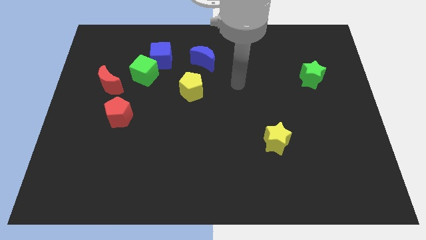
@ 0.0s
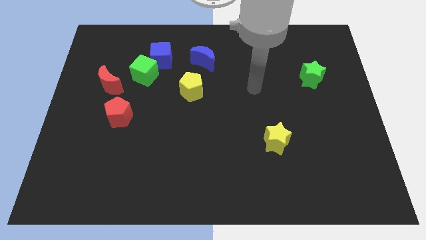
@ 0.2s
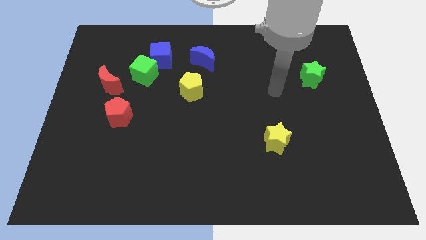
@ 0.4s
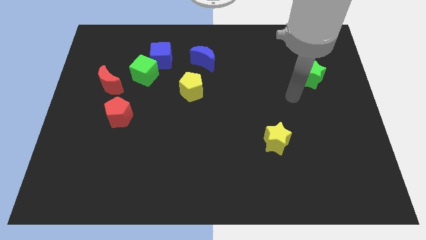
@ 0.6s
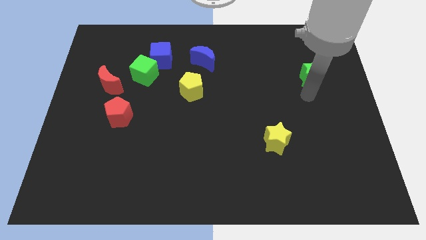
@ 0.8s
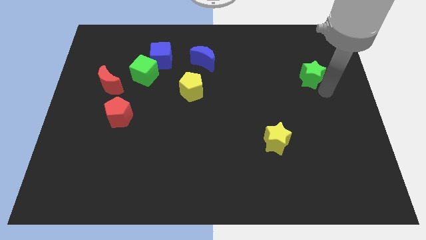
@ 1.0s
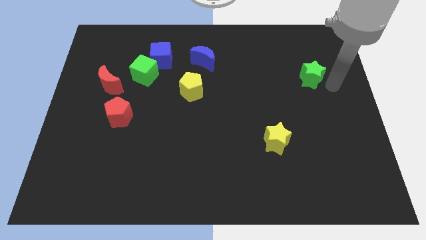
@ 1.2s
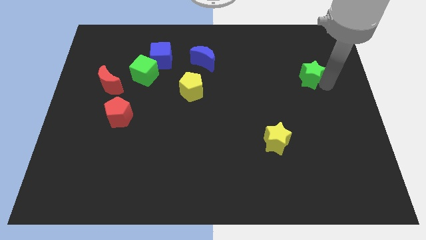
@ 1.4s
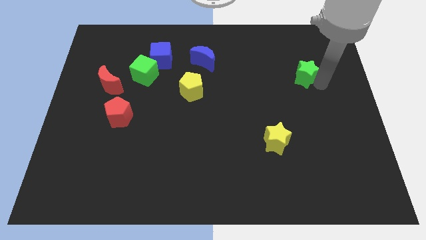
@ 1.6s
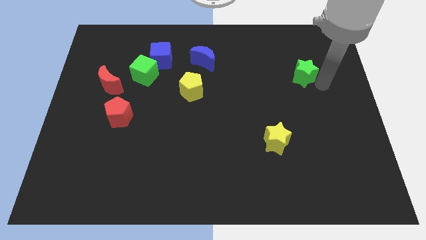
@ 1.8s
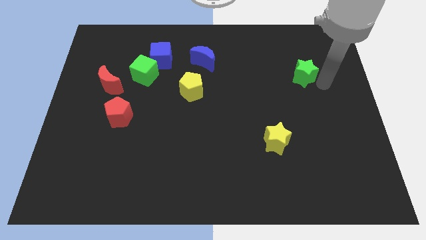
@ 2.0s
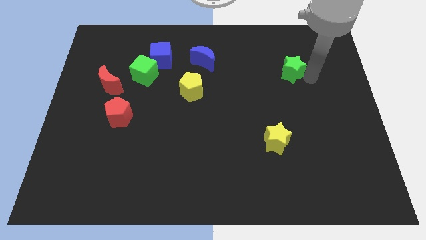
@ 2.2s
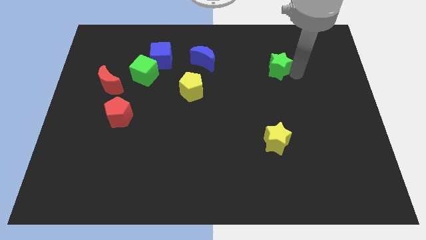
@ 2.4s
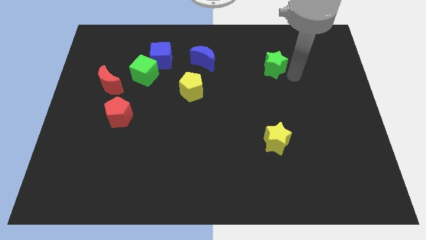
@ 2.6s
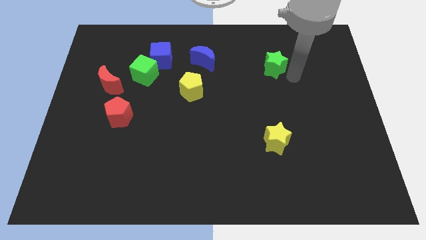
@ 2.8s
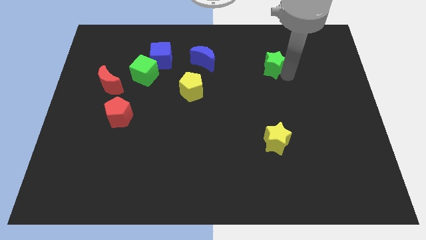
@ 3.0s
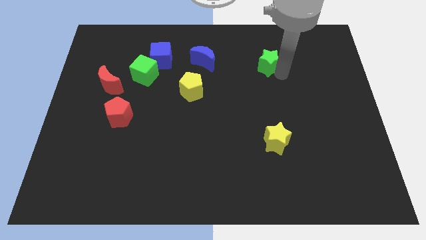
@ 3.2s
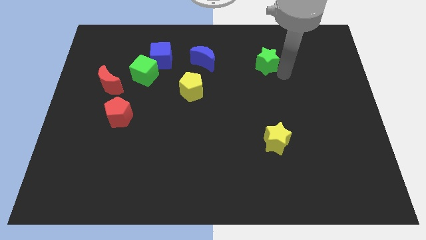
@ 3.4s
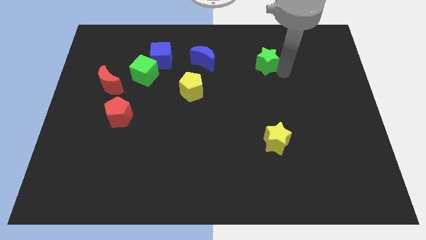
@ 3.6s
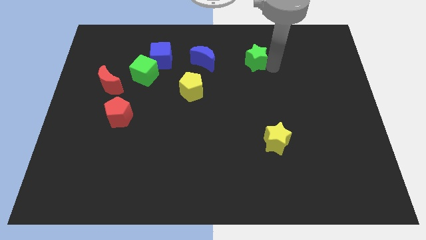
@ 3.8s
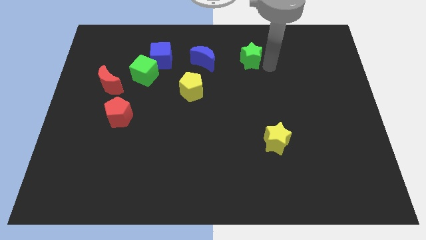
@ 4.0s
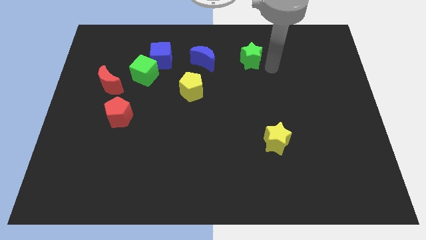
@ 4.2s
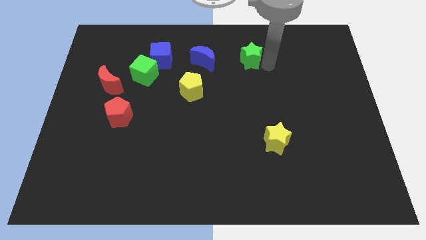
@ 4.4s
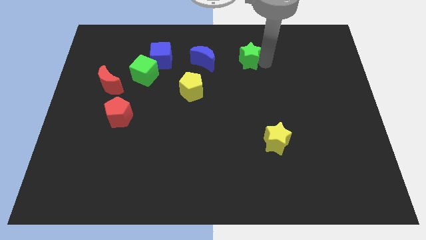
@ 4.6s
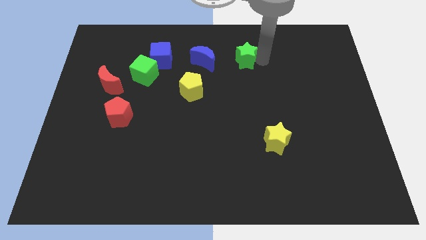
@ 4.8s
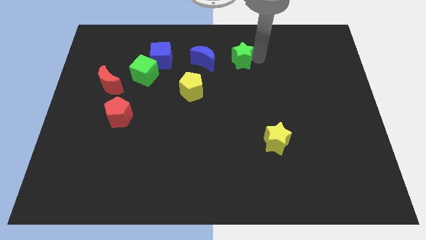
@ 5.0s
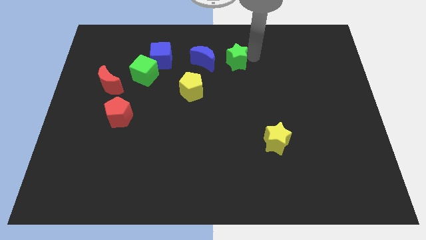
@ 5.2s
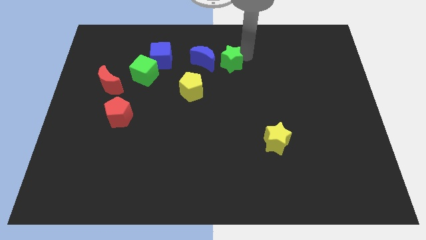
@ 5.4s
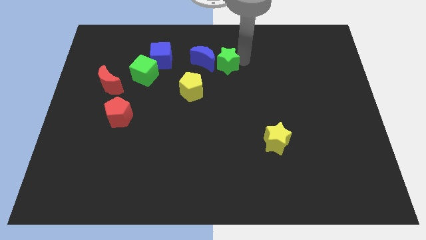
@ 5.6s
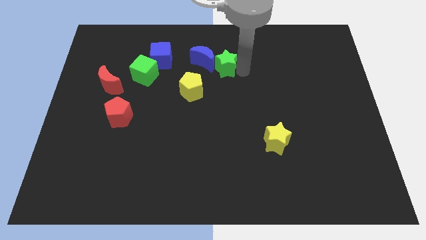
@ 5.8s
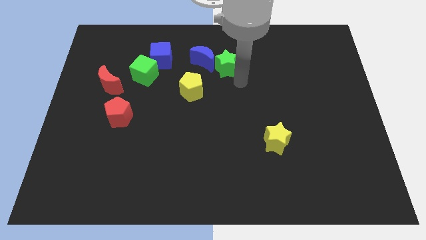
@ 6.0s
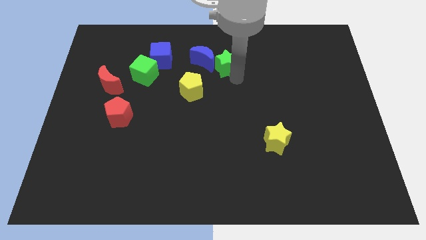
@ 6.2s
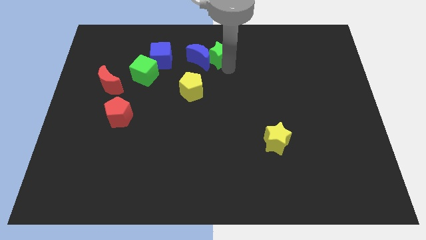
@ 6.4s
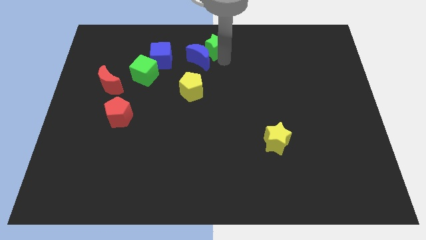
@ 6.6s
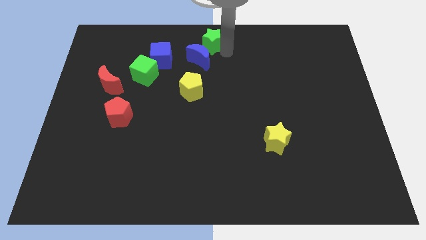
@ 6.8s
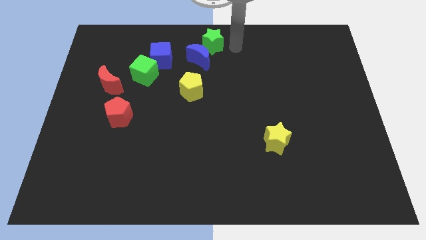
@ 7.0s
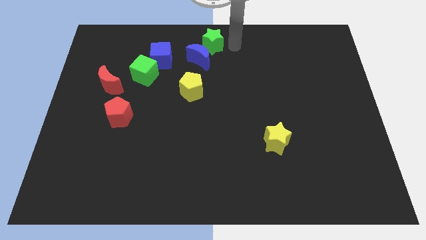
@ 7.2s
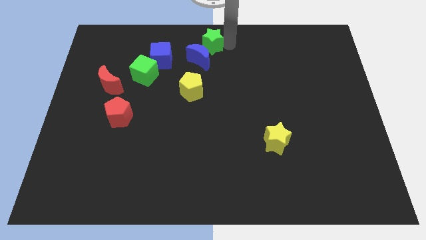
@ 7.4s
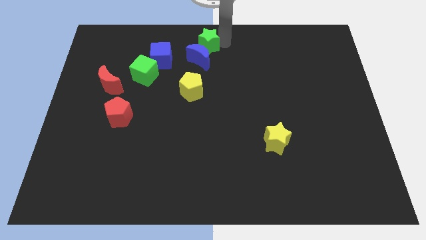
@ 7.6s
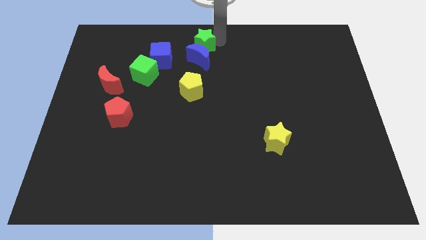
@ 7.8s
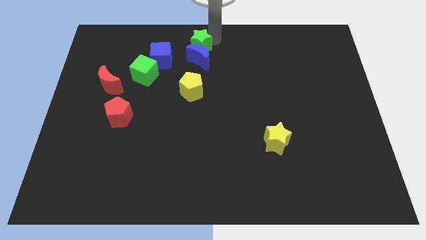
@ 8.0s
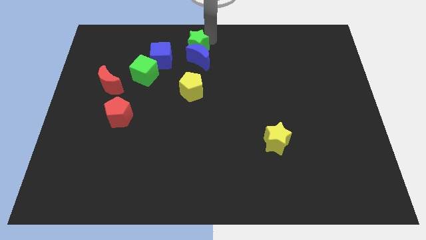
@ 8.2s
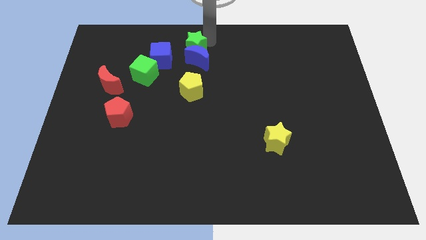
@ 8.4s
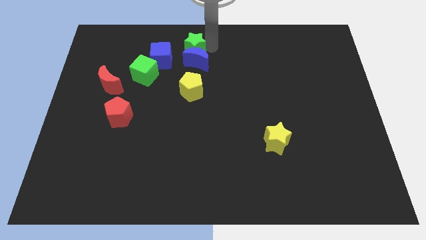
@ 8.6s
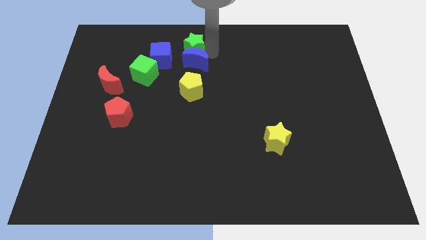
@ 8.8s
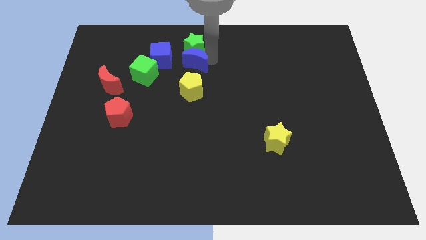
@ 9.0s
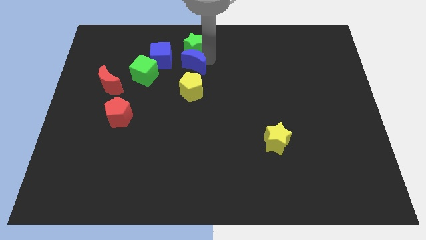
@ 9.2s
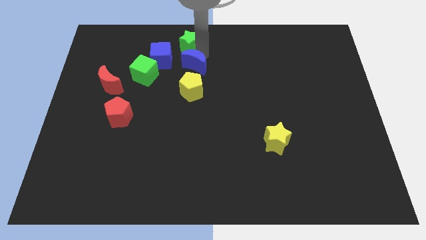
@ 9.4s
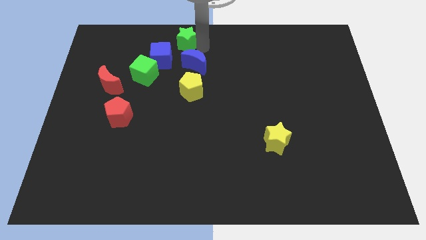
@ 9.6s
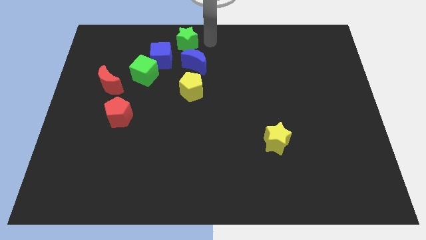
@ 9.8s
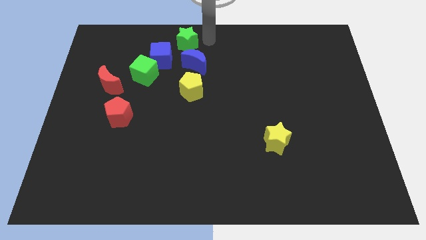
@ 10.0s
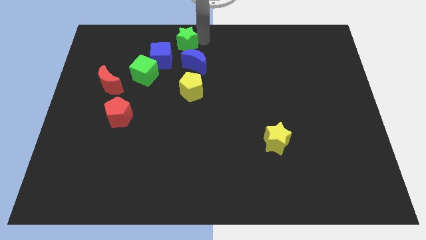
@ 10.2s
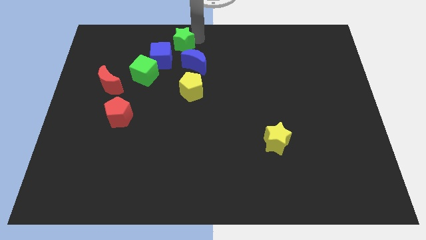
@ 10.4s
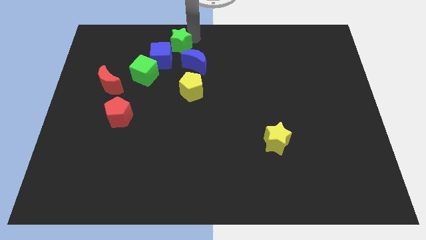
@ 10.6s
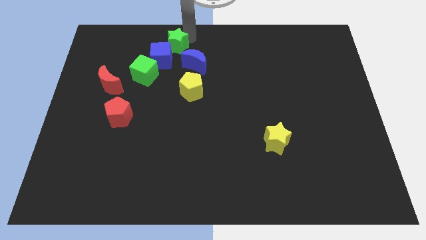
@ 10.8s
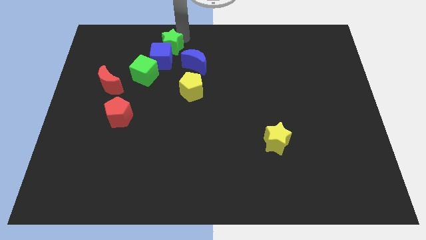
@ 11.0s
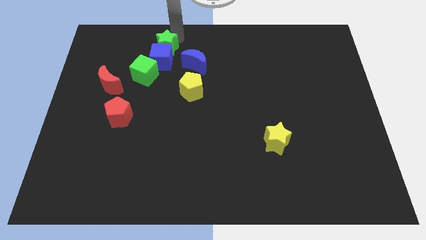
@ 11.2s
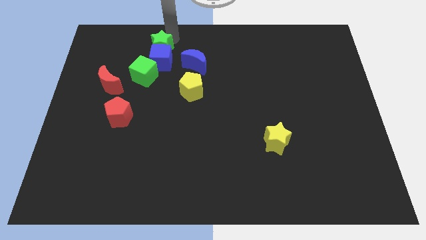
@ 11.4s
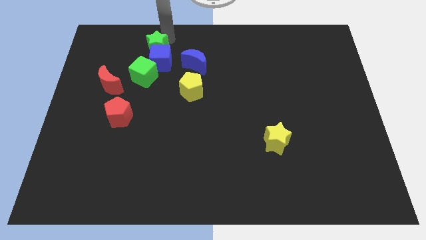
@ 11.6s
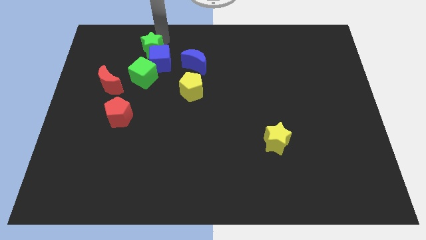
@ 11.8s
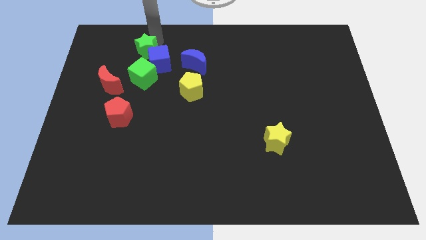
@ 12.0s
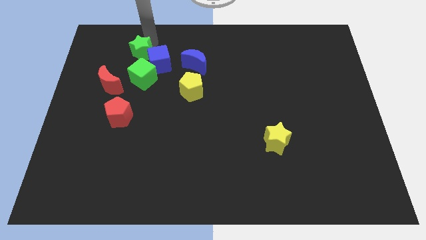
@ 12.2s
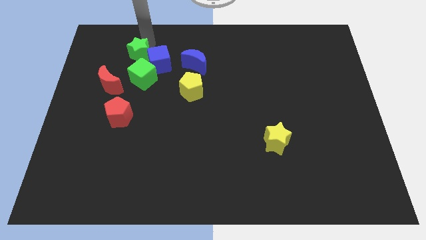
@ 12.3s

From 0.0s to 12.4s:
slide the green star diagonally up and to the left of the green cube
